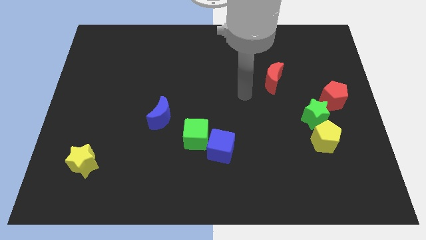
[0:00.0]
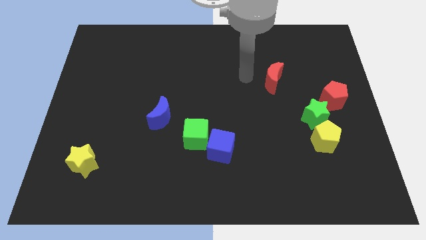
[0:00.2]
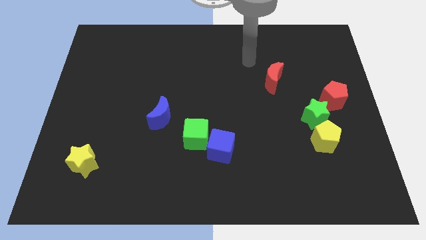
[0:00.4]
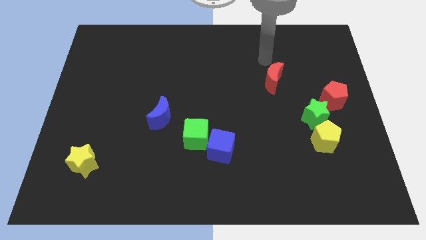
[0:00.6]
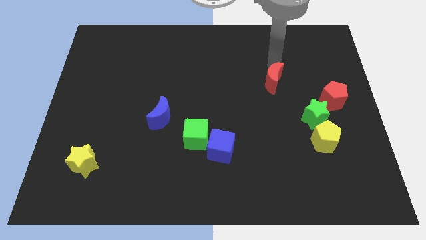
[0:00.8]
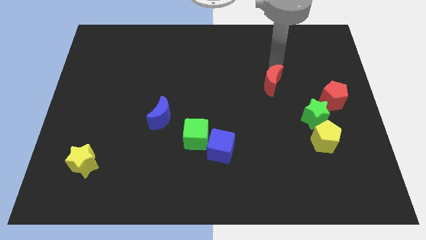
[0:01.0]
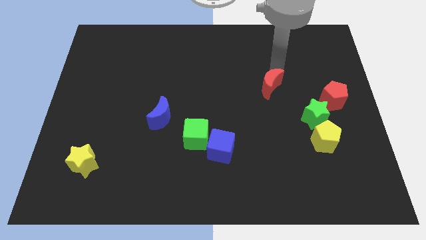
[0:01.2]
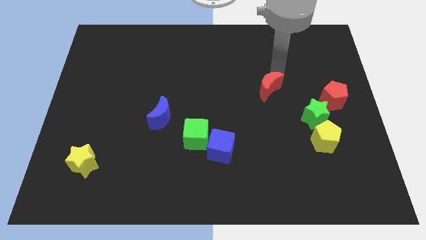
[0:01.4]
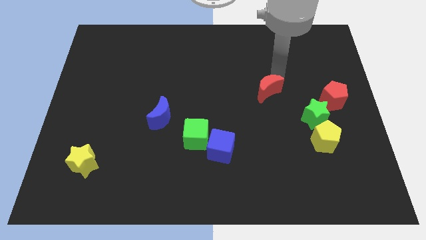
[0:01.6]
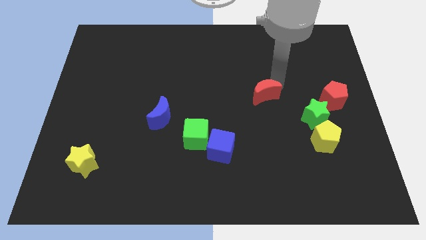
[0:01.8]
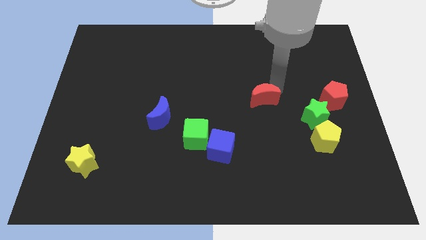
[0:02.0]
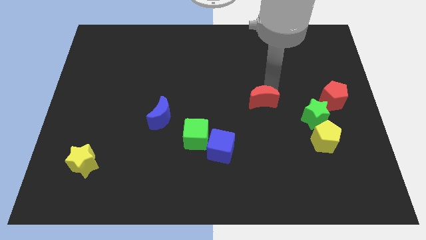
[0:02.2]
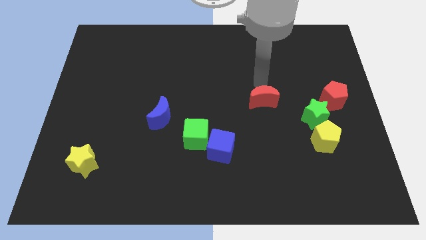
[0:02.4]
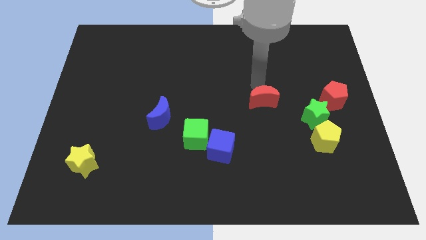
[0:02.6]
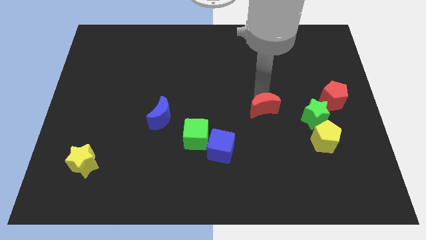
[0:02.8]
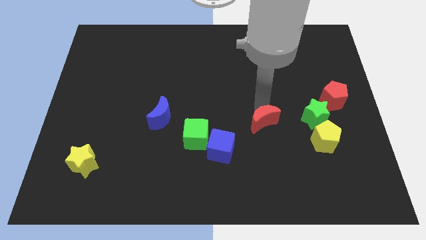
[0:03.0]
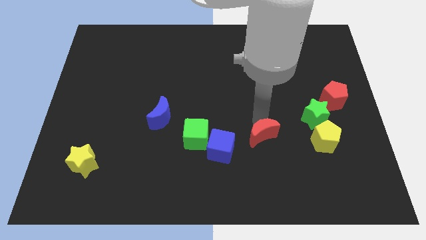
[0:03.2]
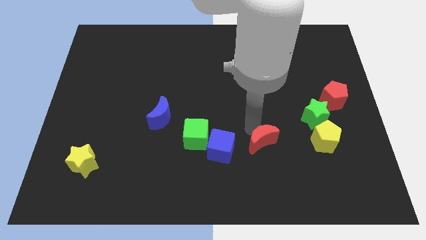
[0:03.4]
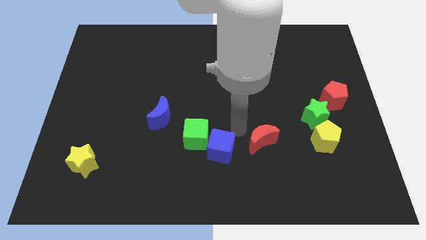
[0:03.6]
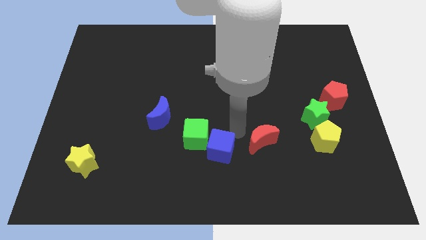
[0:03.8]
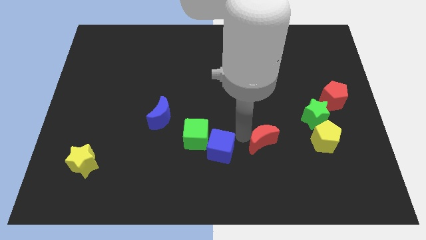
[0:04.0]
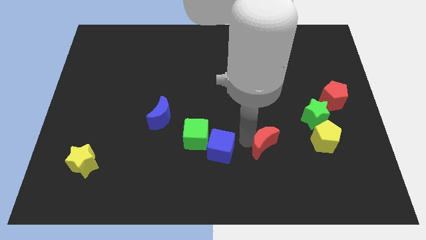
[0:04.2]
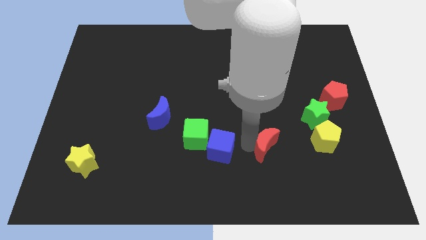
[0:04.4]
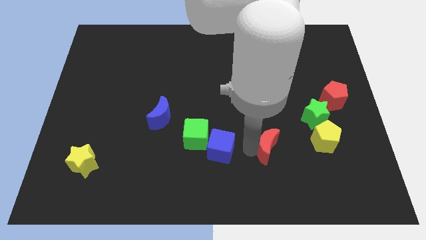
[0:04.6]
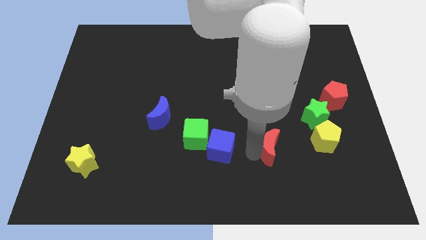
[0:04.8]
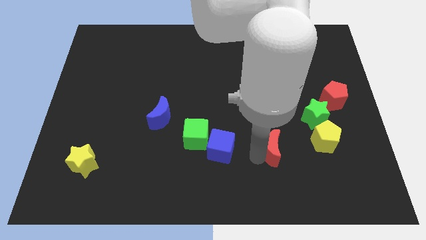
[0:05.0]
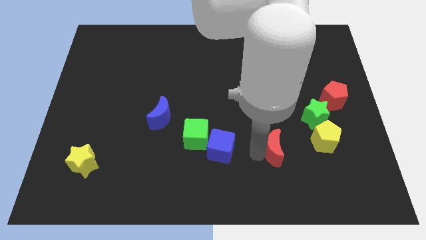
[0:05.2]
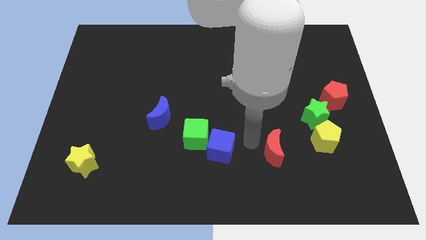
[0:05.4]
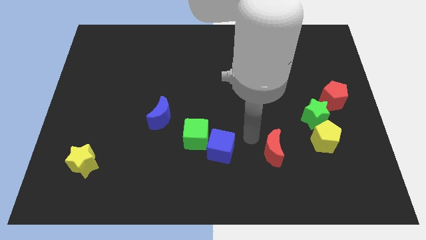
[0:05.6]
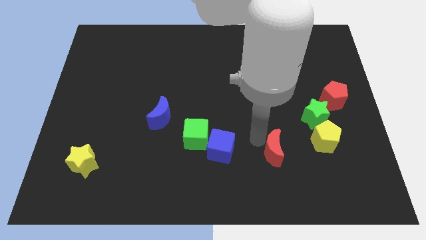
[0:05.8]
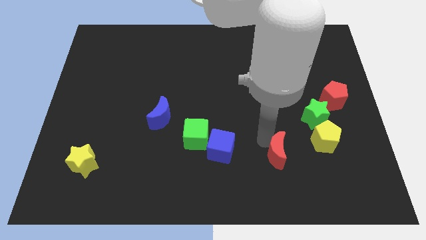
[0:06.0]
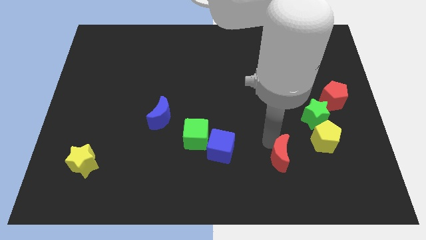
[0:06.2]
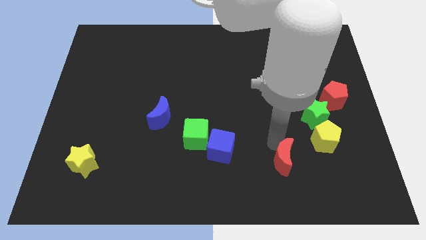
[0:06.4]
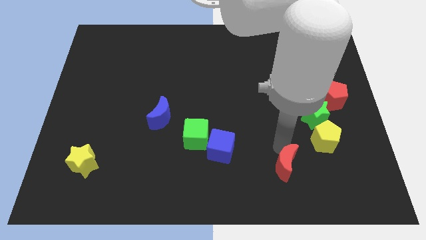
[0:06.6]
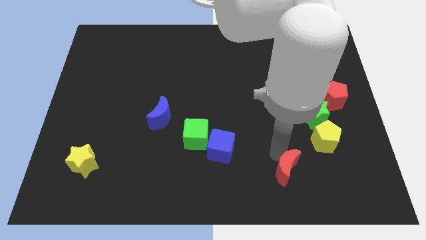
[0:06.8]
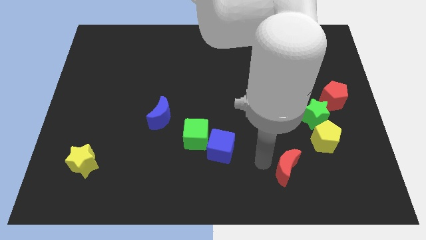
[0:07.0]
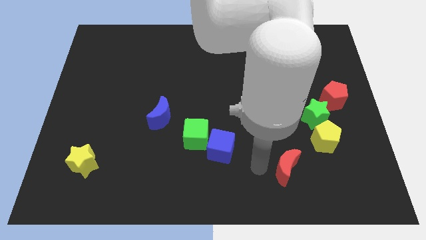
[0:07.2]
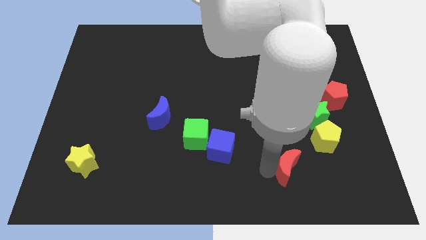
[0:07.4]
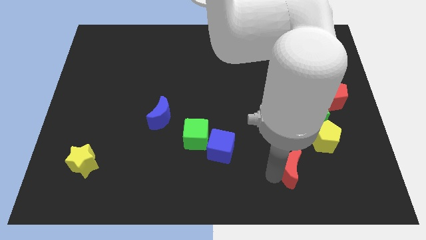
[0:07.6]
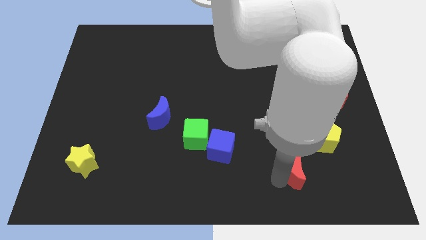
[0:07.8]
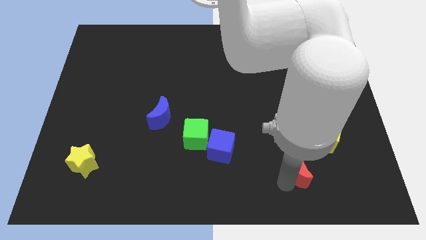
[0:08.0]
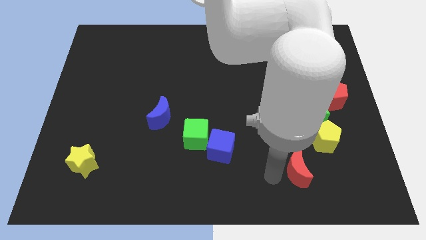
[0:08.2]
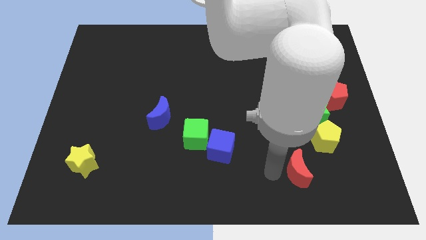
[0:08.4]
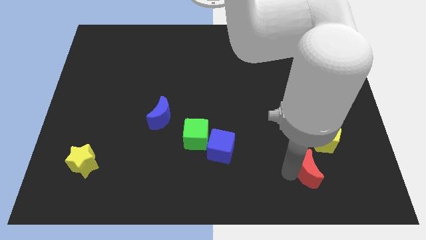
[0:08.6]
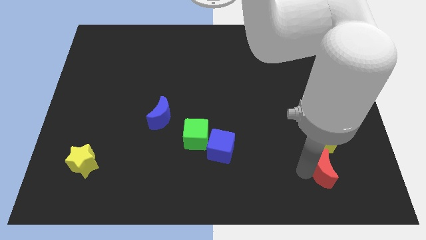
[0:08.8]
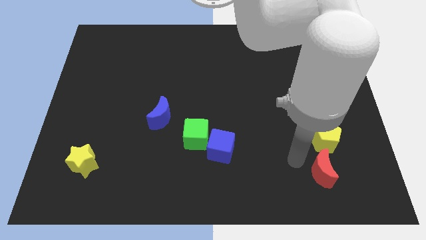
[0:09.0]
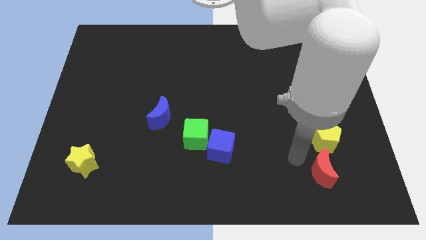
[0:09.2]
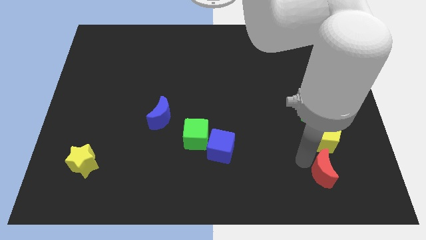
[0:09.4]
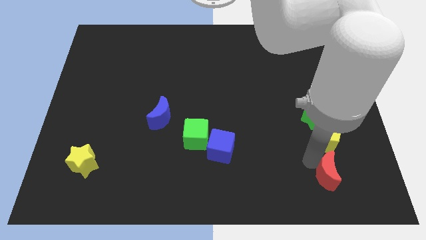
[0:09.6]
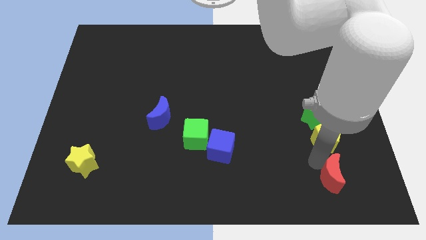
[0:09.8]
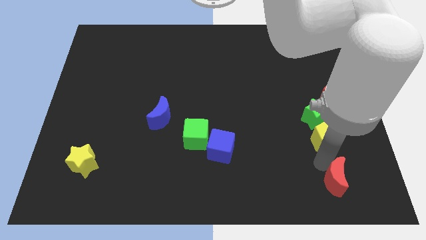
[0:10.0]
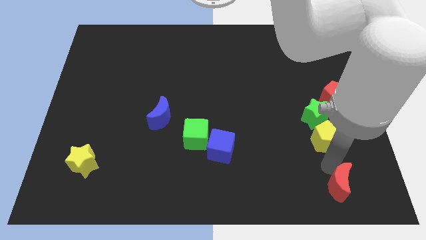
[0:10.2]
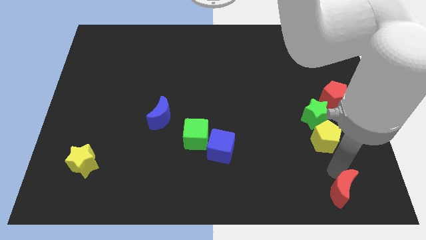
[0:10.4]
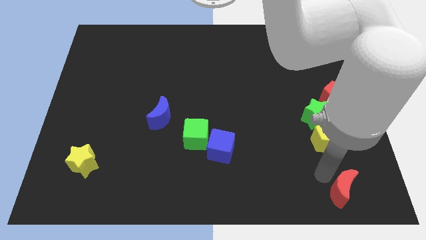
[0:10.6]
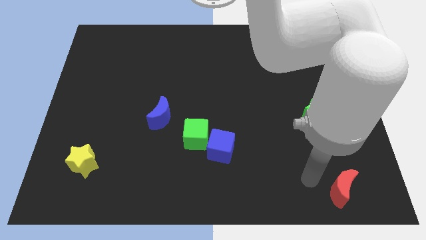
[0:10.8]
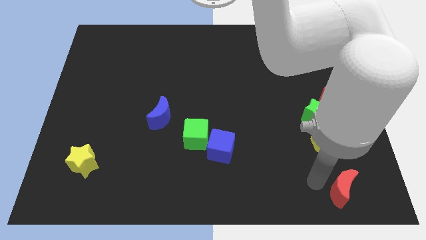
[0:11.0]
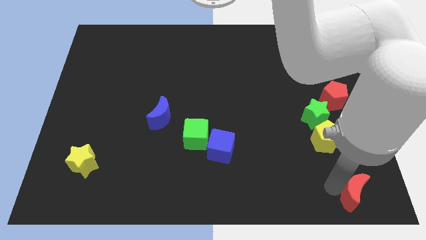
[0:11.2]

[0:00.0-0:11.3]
slide the red moon to the bottom right

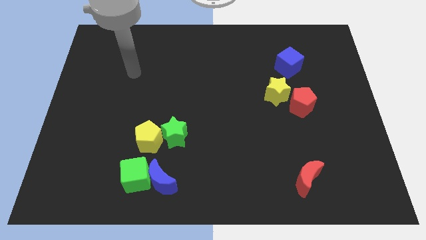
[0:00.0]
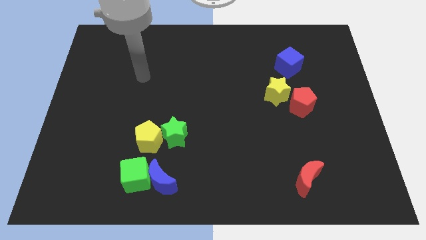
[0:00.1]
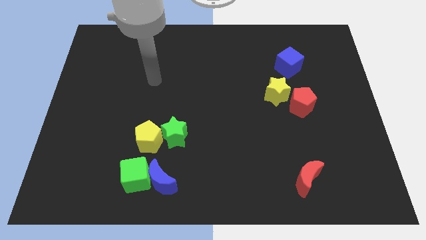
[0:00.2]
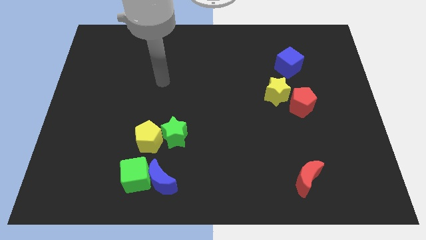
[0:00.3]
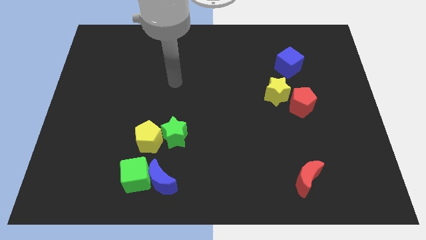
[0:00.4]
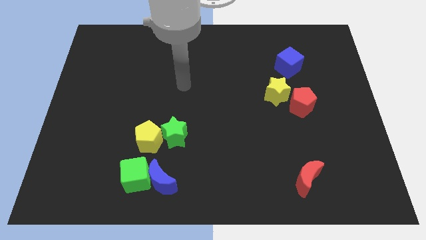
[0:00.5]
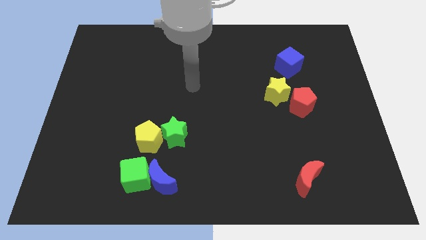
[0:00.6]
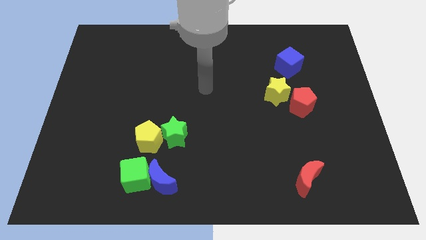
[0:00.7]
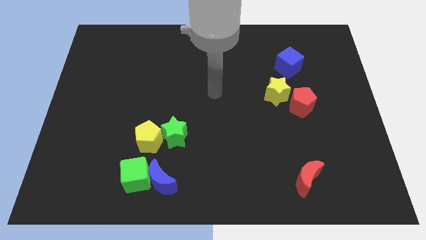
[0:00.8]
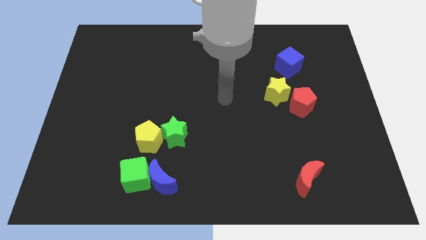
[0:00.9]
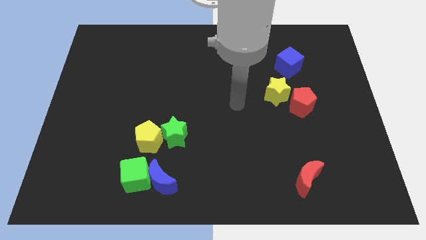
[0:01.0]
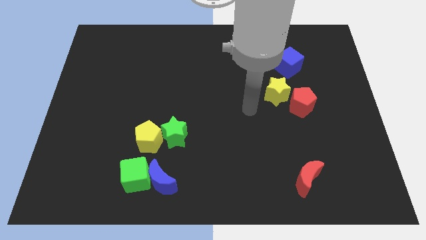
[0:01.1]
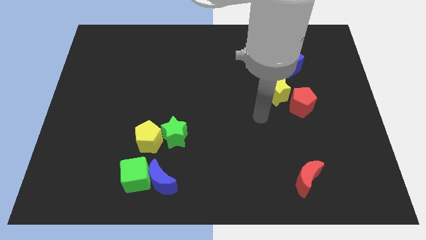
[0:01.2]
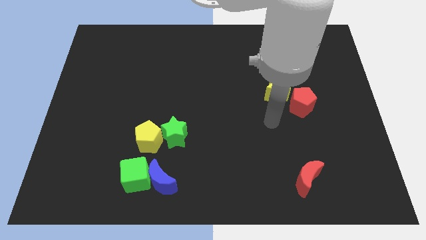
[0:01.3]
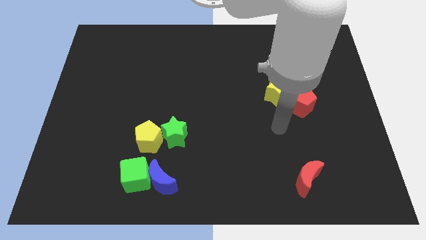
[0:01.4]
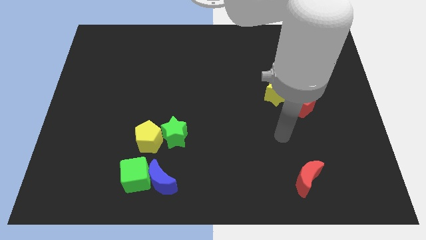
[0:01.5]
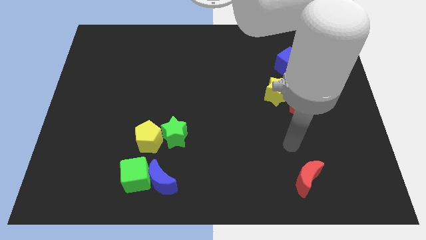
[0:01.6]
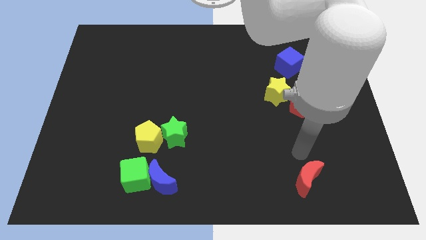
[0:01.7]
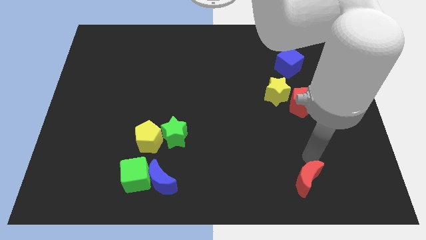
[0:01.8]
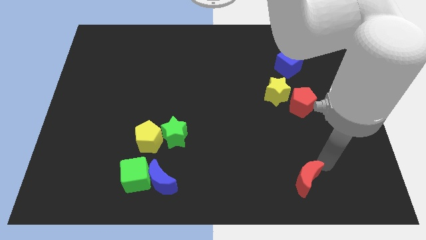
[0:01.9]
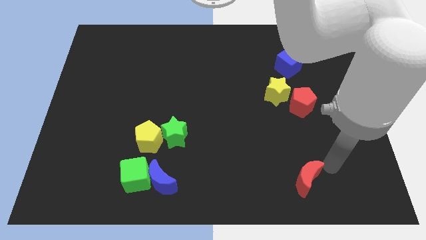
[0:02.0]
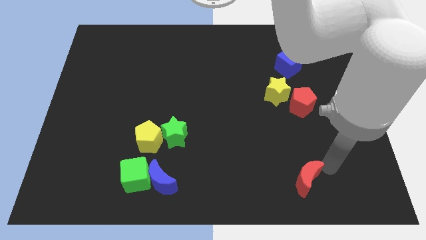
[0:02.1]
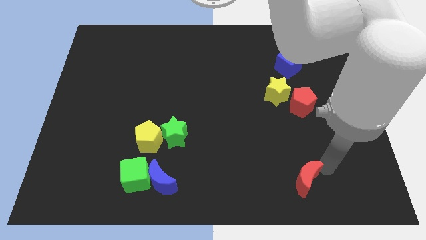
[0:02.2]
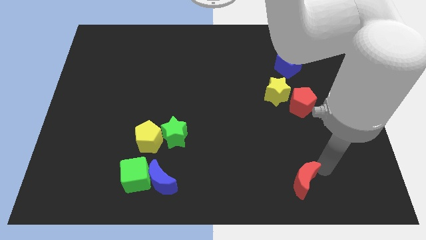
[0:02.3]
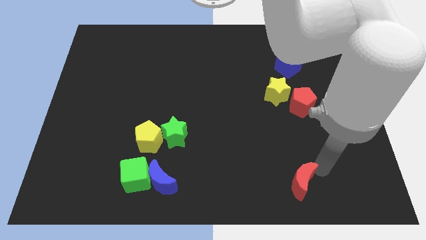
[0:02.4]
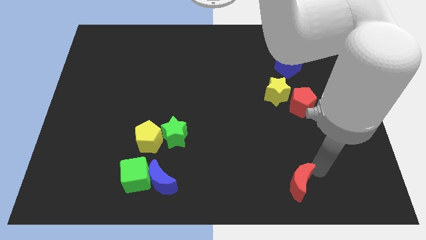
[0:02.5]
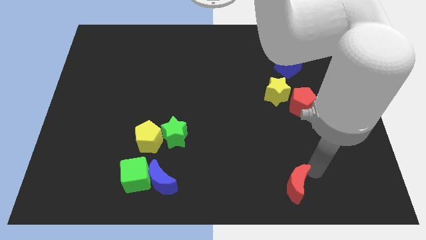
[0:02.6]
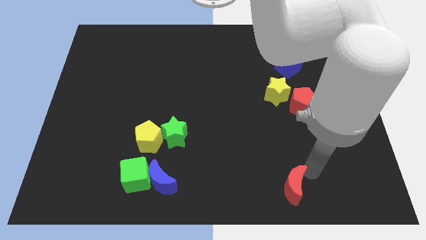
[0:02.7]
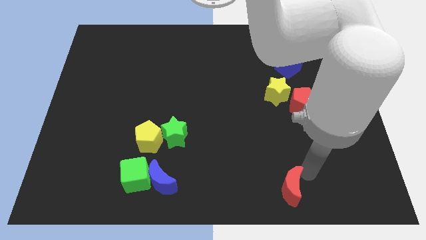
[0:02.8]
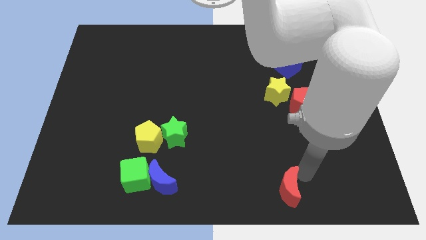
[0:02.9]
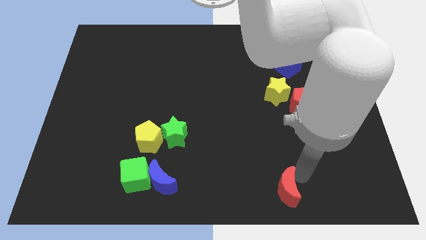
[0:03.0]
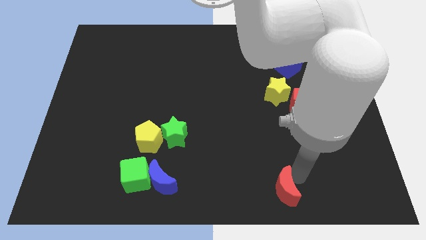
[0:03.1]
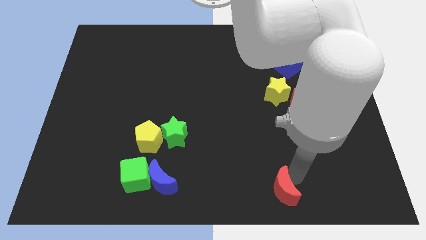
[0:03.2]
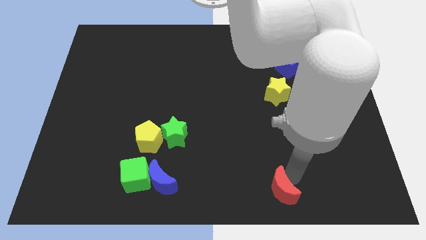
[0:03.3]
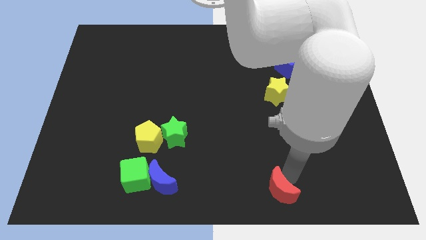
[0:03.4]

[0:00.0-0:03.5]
slide the red moon to the bottom side
